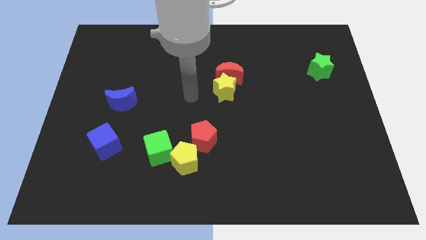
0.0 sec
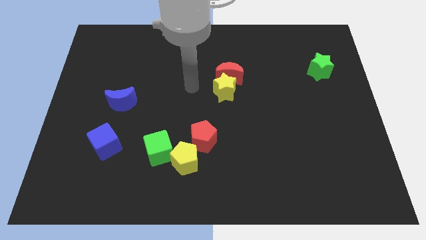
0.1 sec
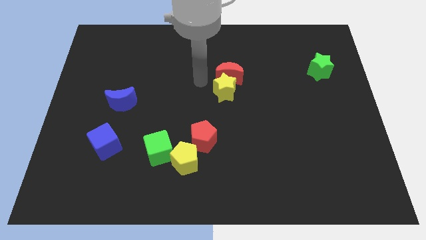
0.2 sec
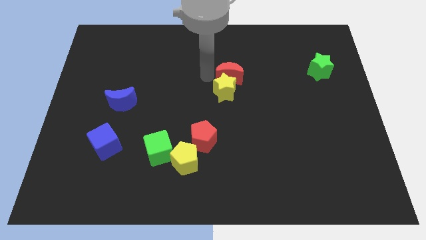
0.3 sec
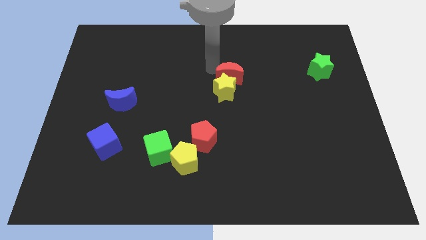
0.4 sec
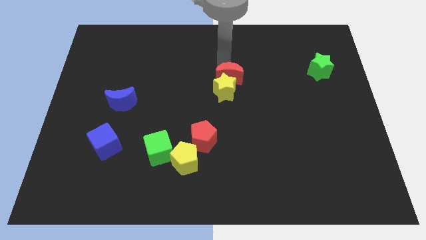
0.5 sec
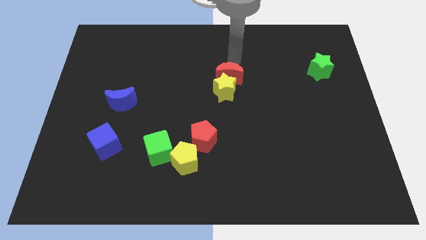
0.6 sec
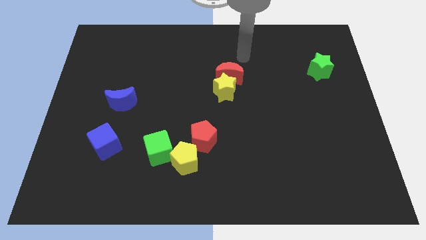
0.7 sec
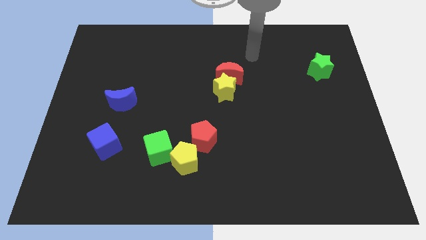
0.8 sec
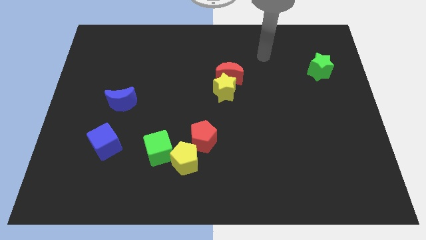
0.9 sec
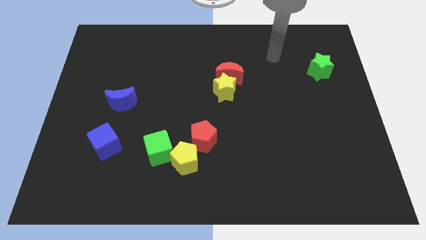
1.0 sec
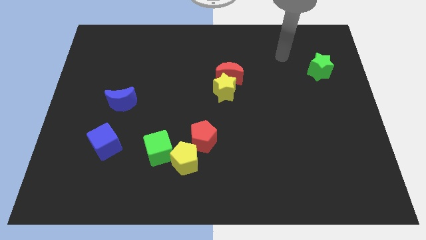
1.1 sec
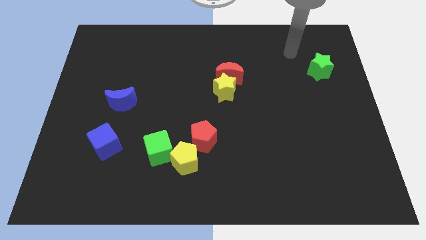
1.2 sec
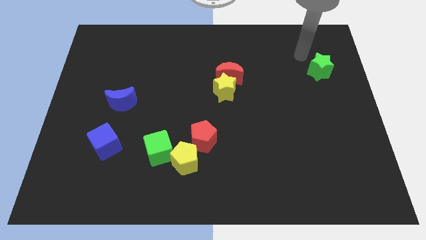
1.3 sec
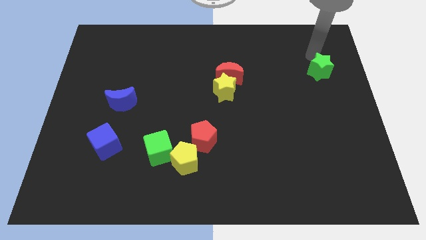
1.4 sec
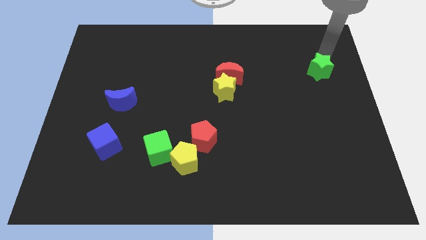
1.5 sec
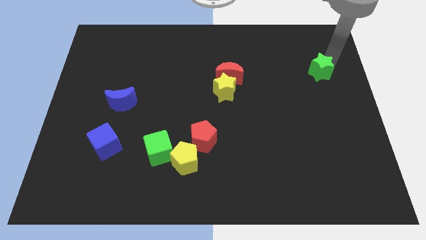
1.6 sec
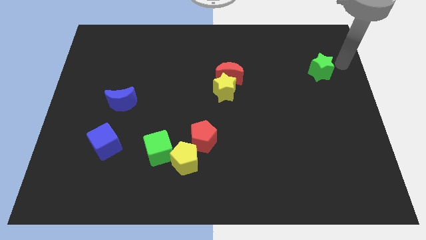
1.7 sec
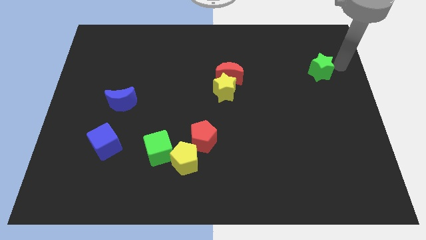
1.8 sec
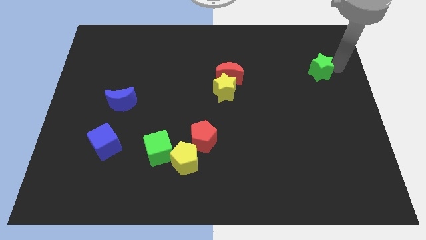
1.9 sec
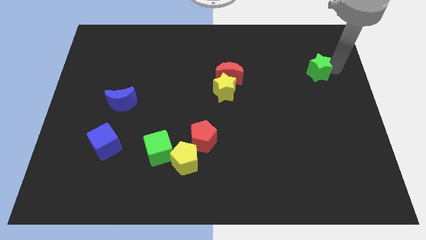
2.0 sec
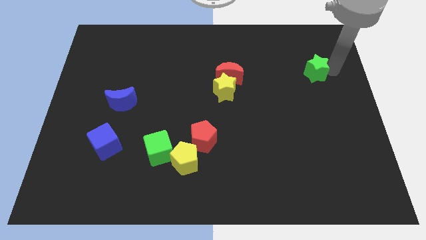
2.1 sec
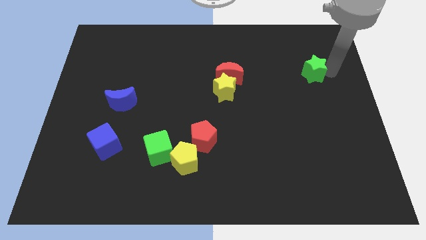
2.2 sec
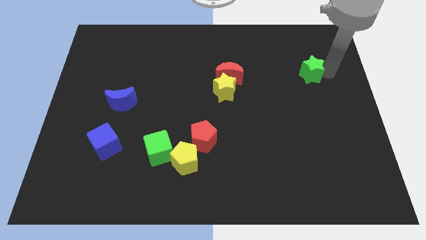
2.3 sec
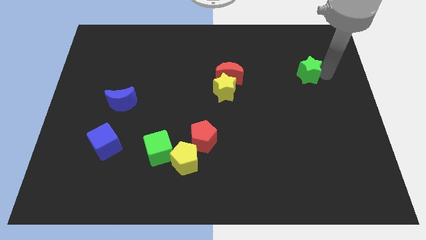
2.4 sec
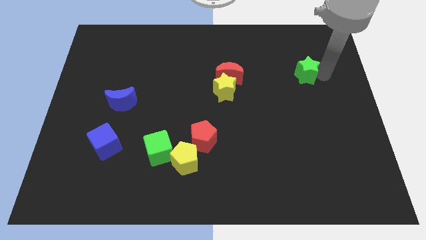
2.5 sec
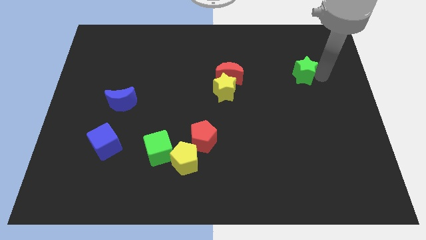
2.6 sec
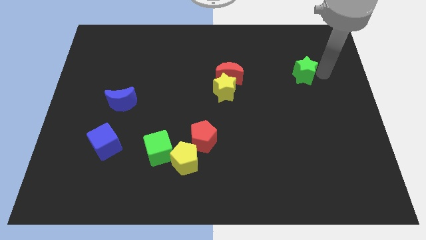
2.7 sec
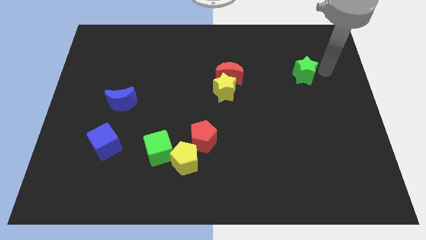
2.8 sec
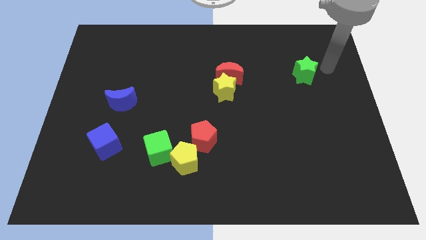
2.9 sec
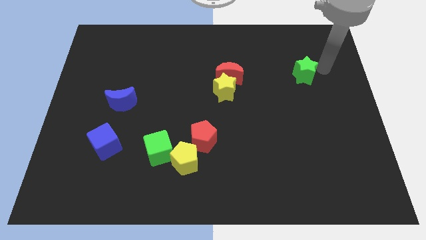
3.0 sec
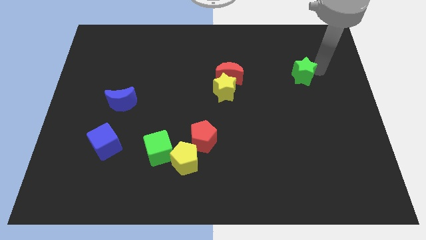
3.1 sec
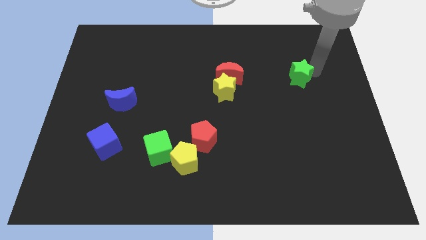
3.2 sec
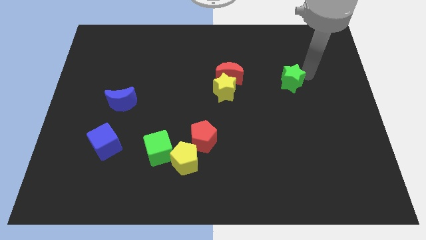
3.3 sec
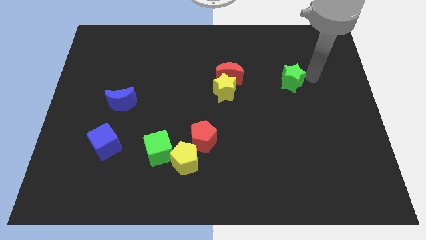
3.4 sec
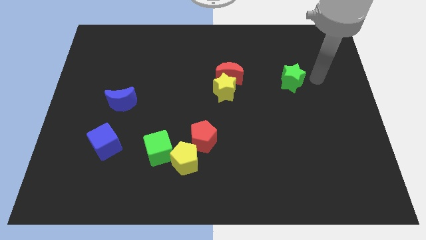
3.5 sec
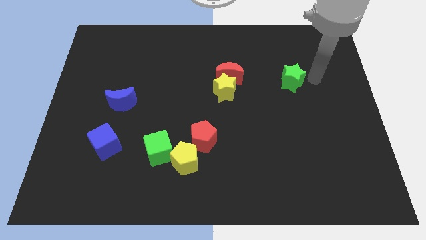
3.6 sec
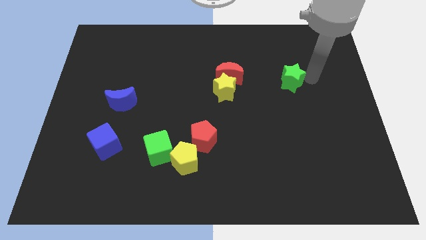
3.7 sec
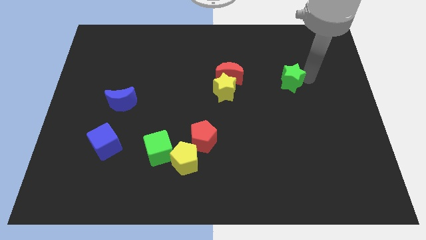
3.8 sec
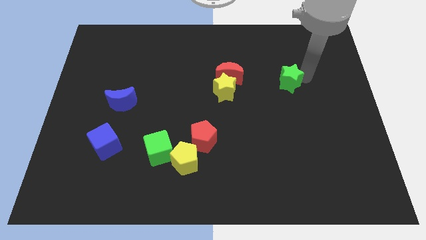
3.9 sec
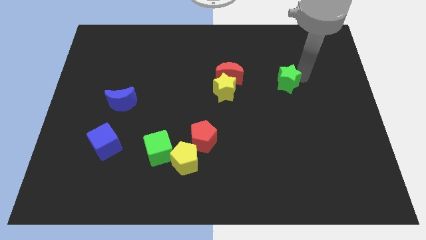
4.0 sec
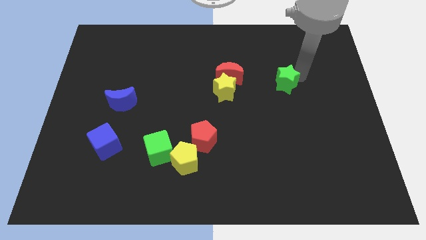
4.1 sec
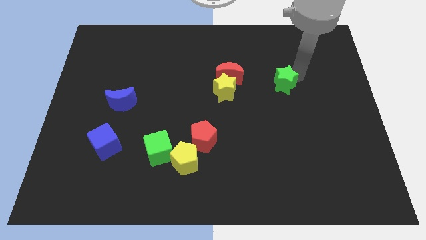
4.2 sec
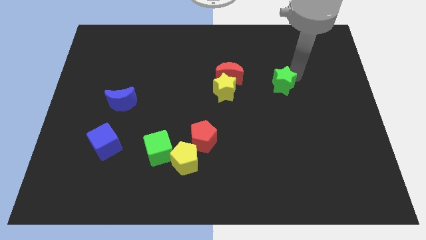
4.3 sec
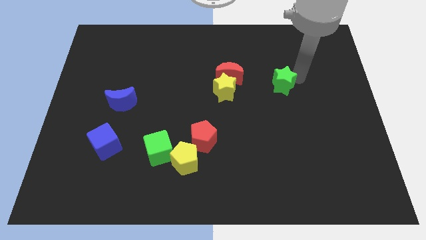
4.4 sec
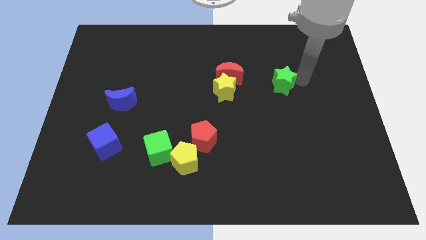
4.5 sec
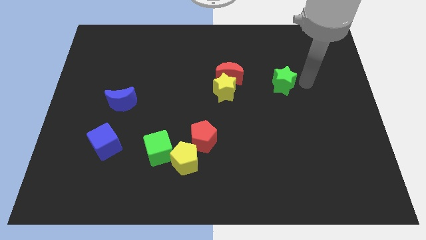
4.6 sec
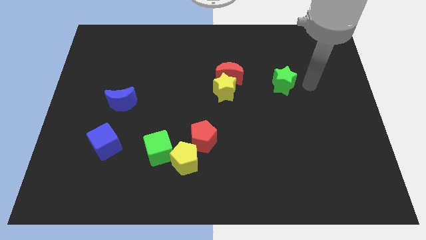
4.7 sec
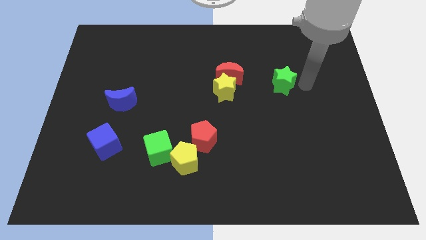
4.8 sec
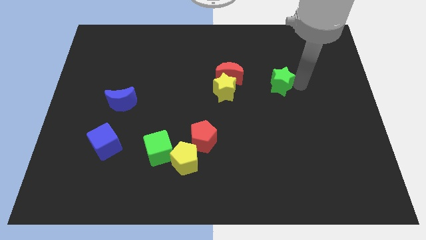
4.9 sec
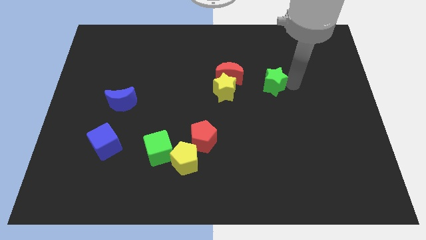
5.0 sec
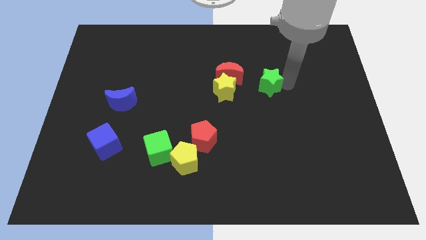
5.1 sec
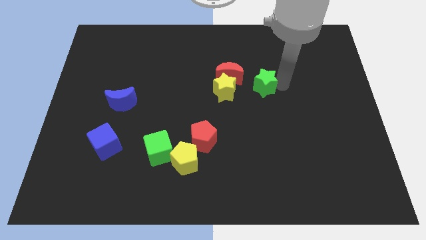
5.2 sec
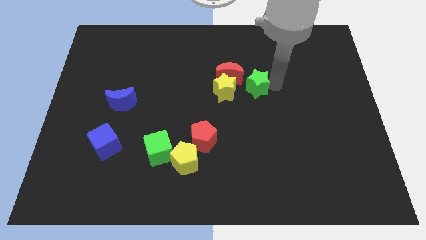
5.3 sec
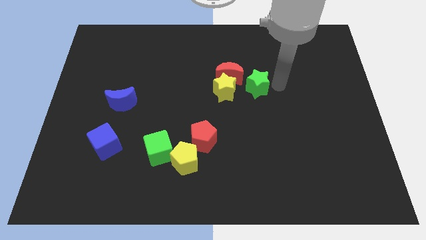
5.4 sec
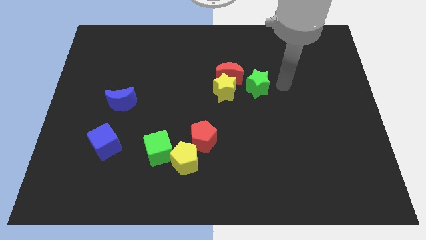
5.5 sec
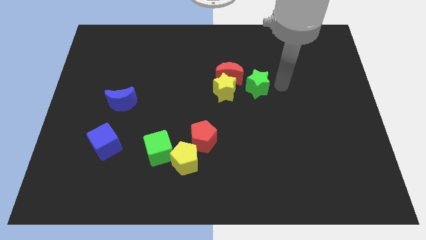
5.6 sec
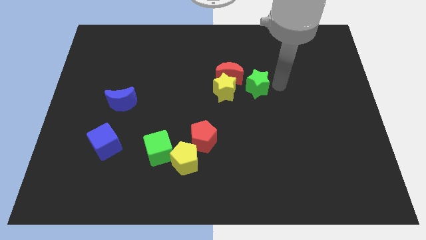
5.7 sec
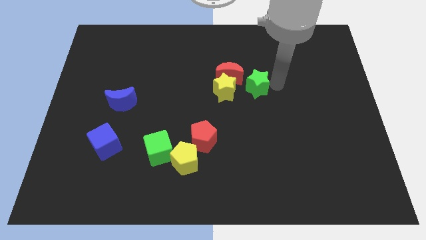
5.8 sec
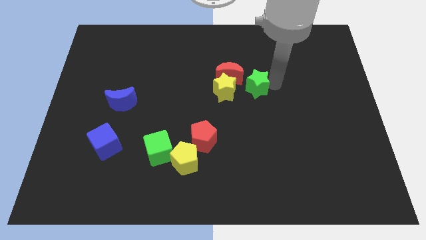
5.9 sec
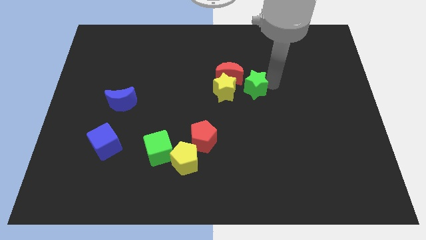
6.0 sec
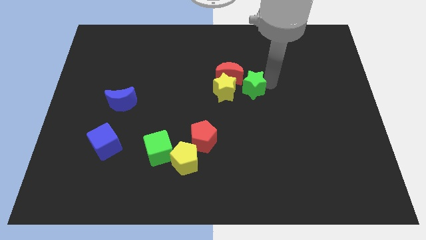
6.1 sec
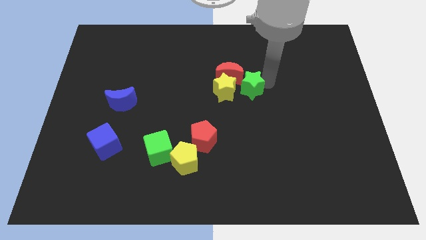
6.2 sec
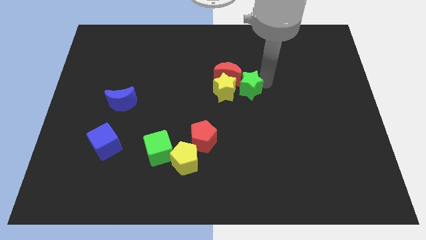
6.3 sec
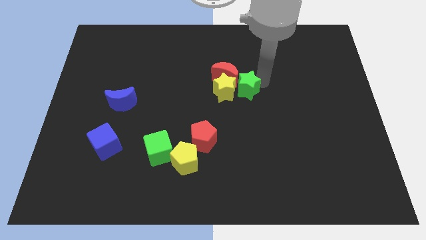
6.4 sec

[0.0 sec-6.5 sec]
move the green star next to the yellow star

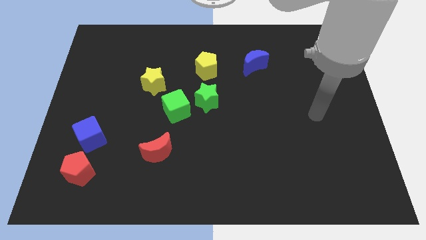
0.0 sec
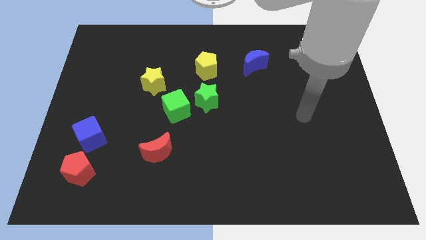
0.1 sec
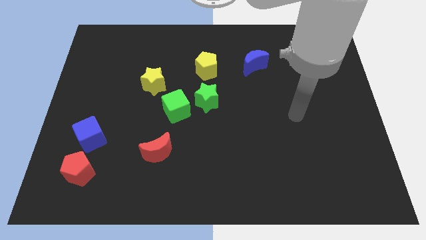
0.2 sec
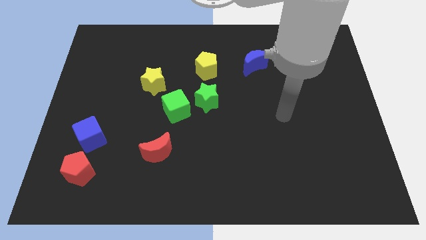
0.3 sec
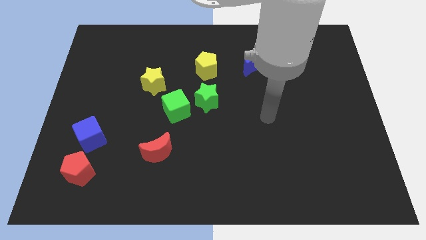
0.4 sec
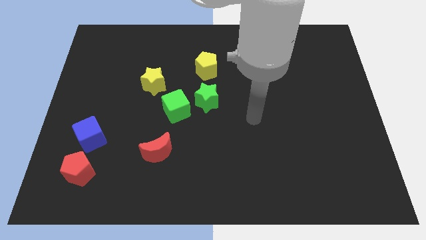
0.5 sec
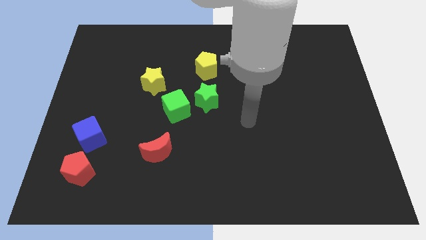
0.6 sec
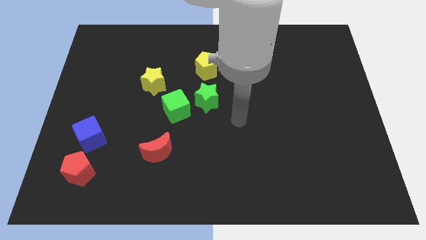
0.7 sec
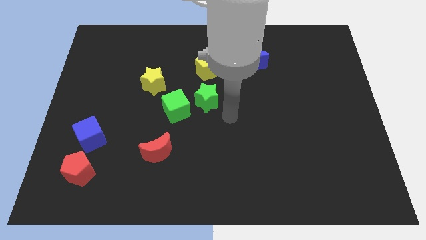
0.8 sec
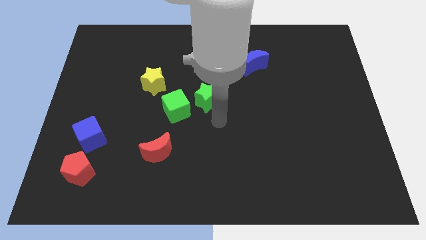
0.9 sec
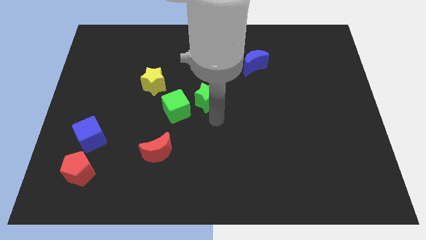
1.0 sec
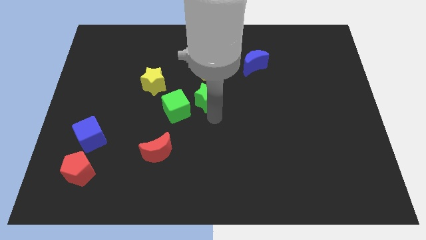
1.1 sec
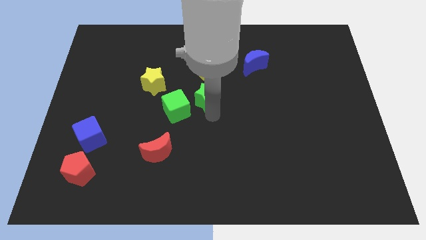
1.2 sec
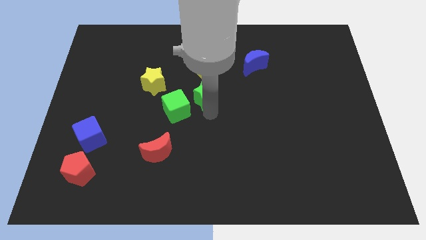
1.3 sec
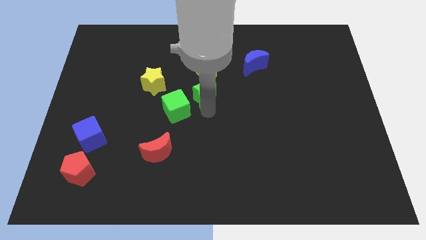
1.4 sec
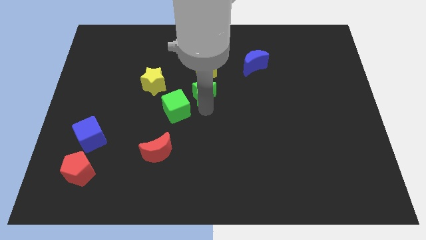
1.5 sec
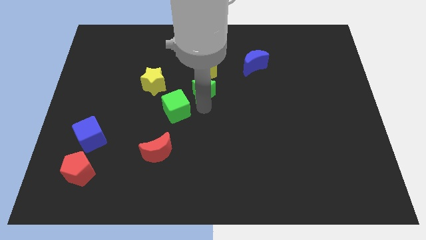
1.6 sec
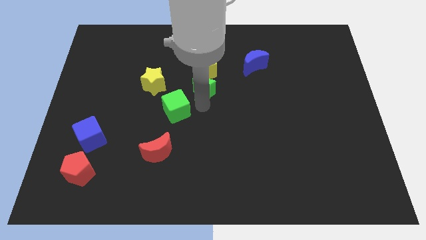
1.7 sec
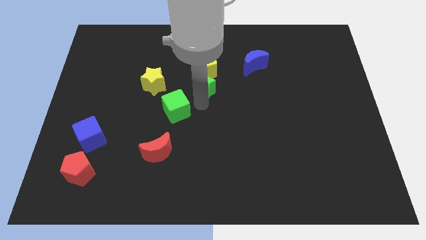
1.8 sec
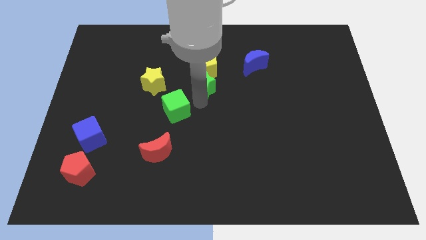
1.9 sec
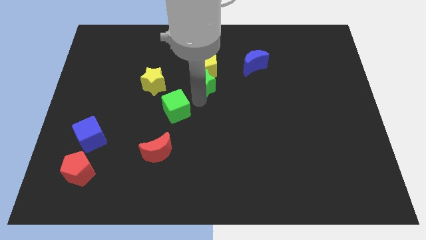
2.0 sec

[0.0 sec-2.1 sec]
put the green star close to the yellow pentagon
